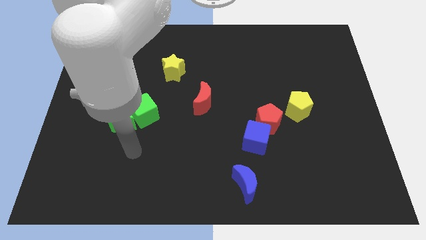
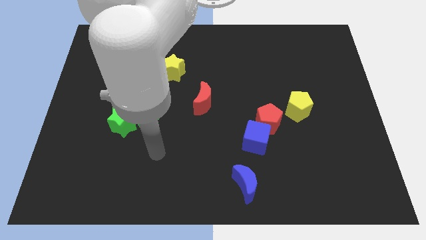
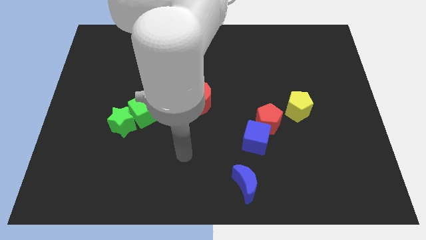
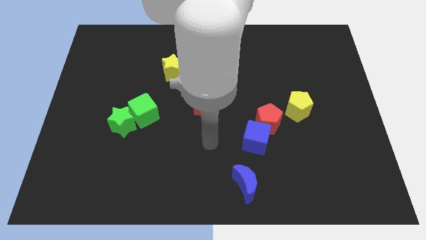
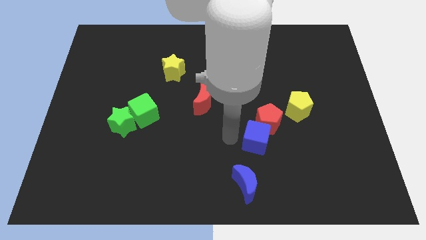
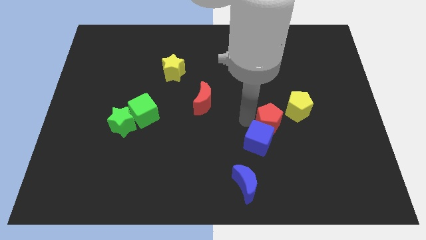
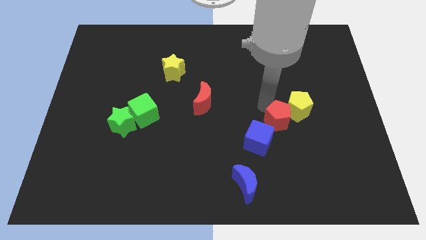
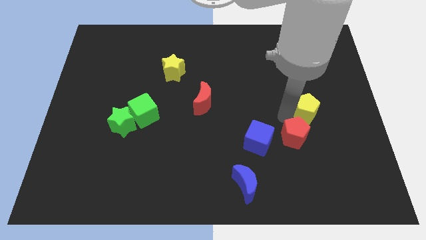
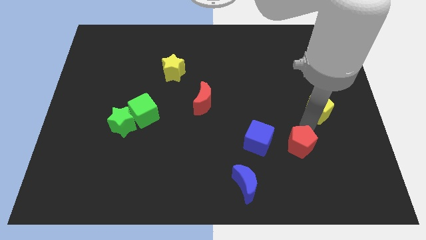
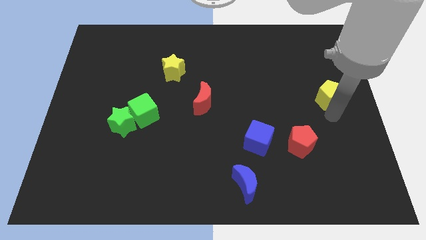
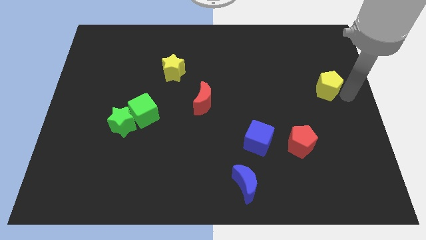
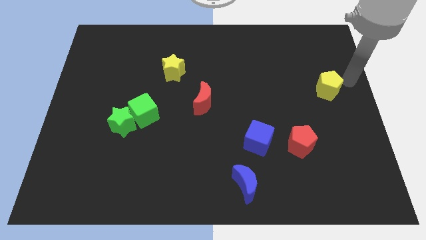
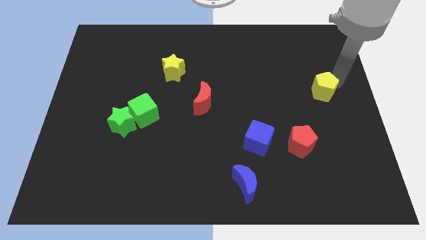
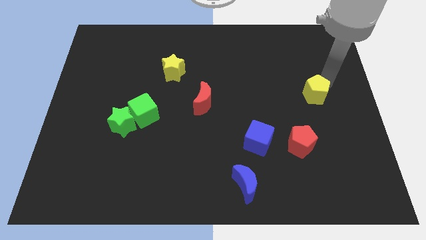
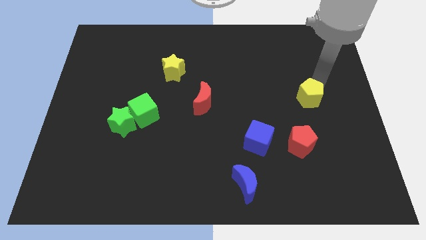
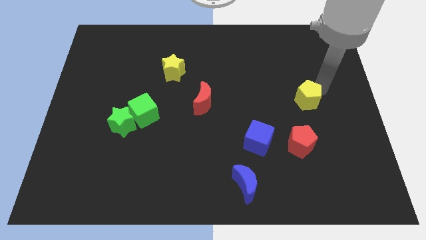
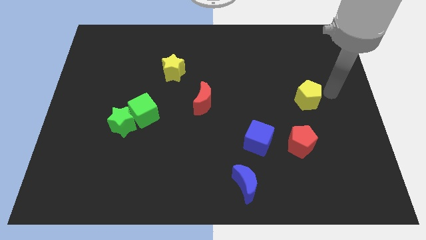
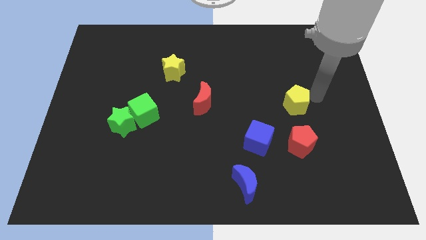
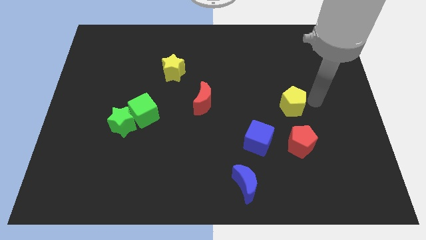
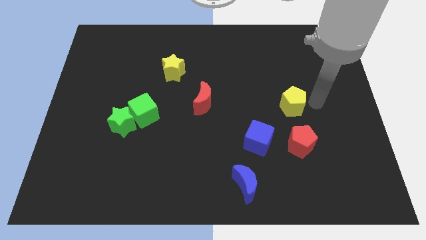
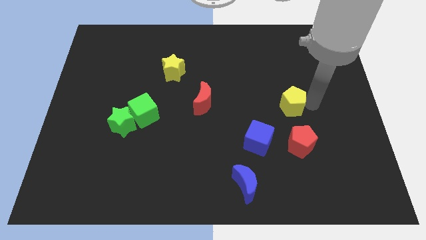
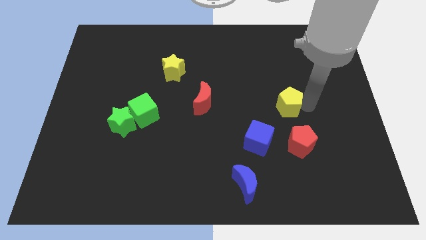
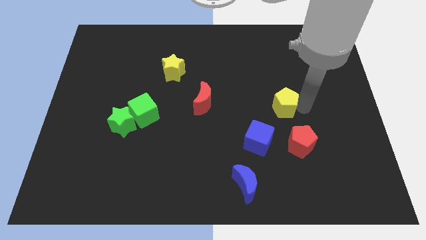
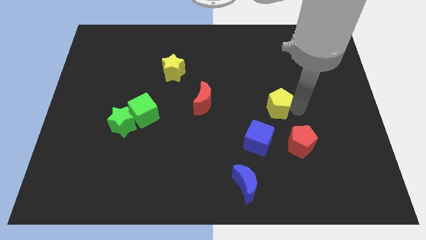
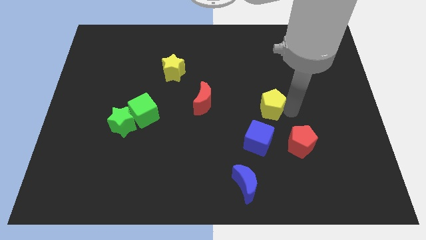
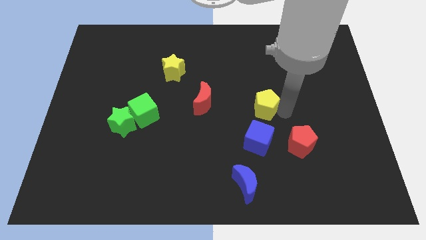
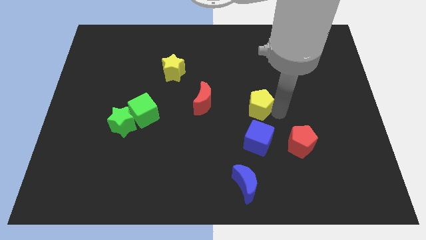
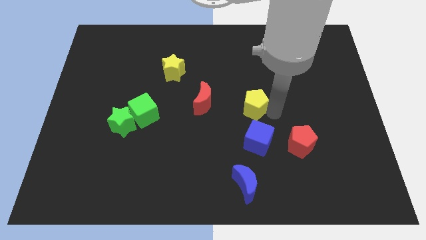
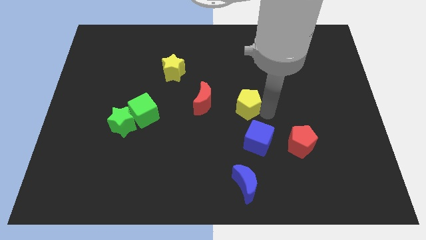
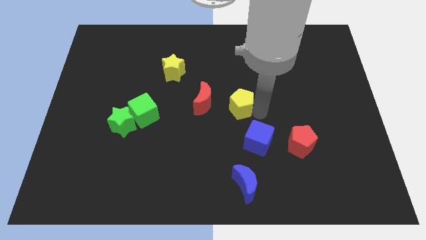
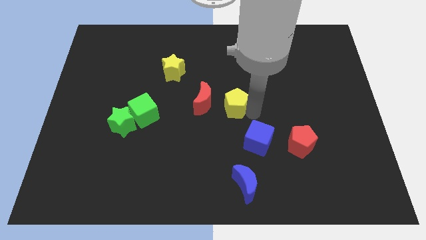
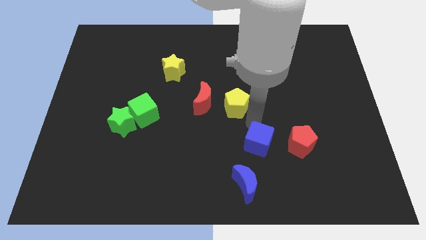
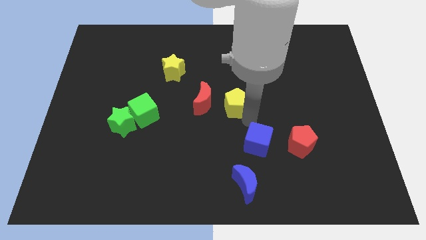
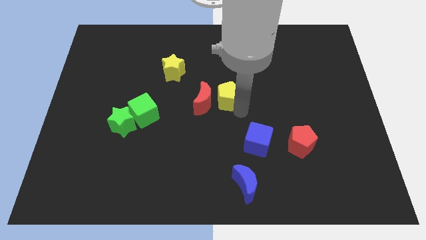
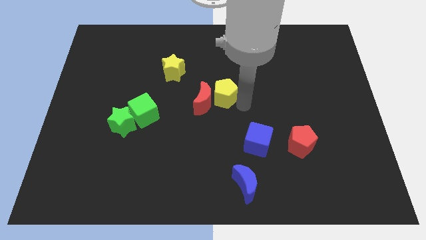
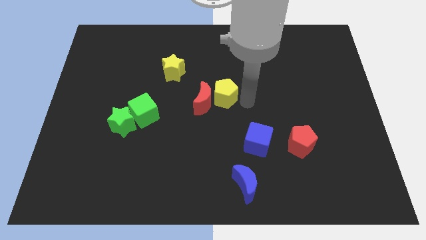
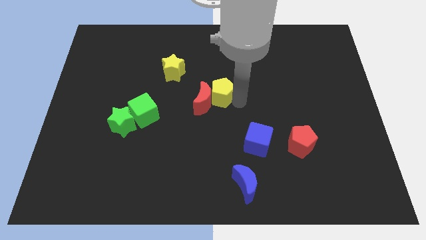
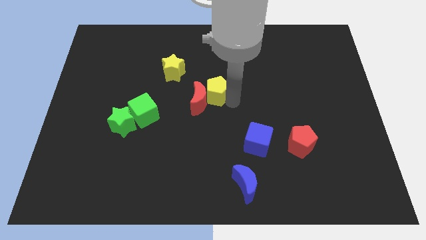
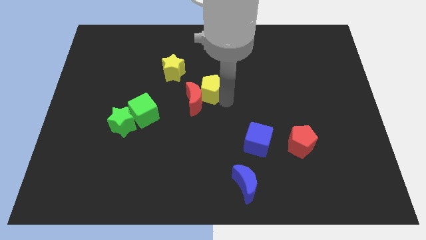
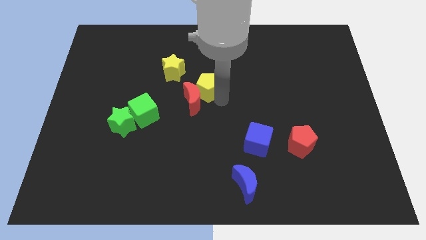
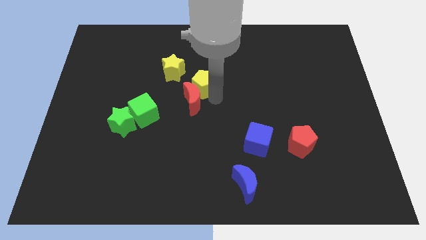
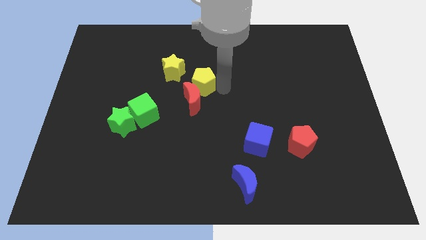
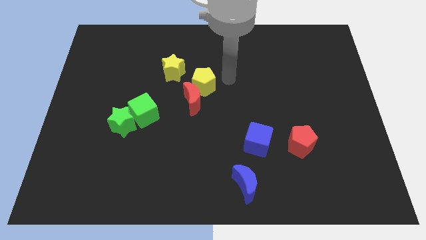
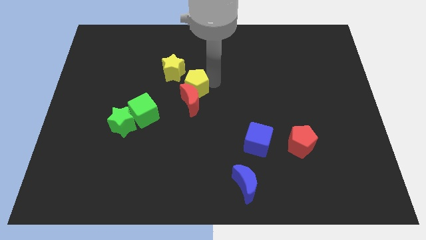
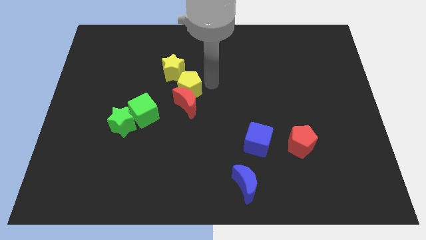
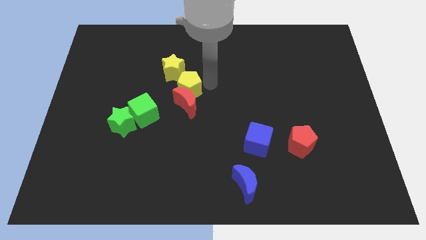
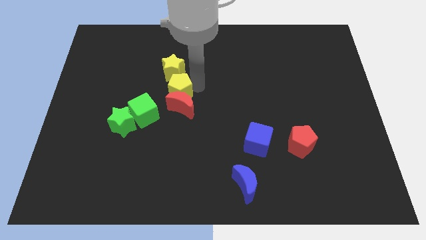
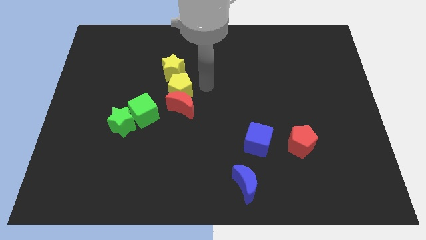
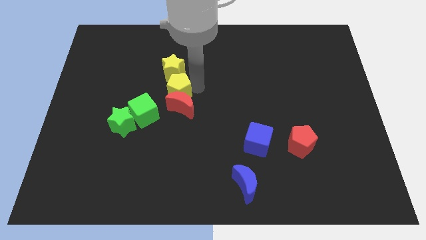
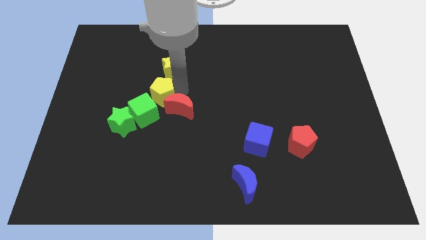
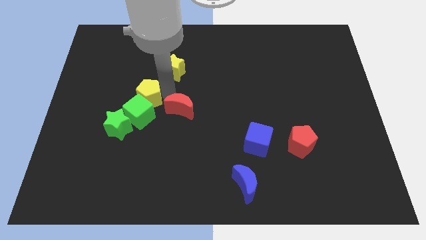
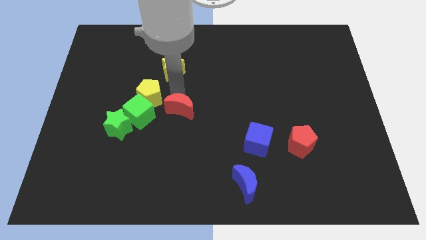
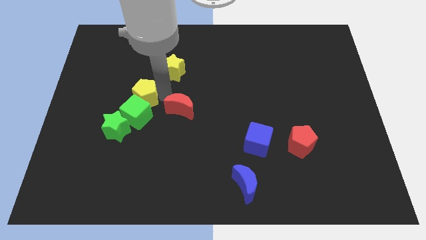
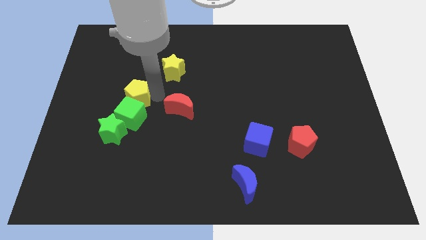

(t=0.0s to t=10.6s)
move the yellow pentagon to the top left side of the green cube
